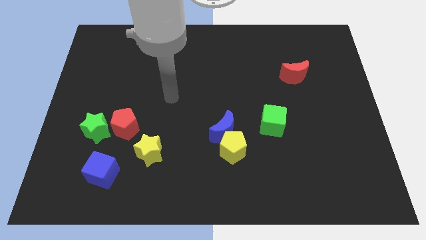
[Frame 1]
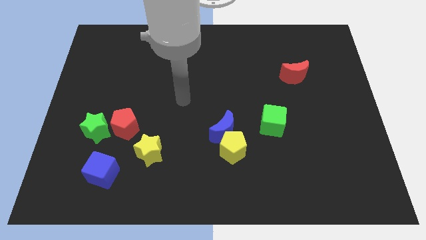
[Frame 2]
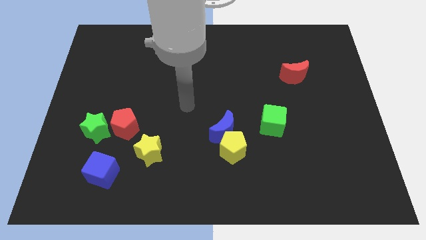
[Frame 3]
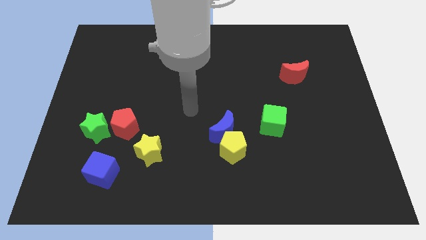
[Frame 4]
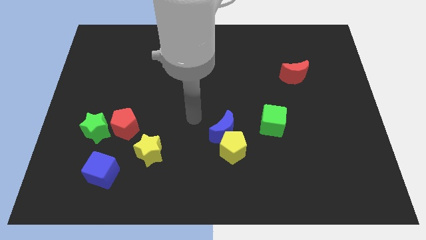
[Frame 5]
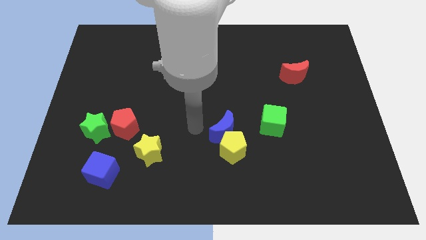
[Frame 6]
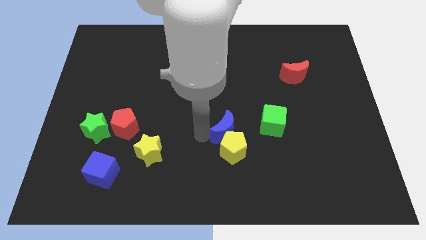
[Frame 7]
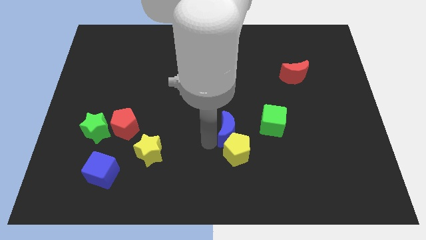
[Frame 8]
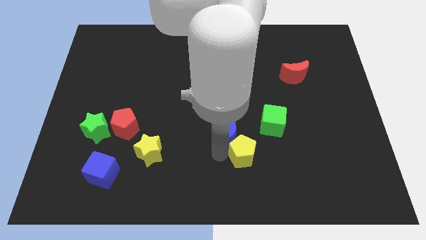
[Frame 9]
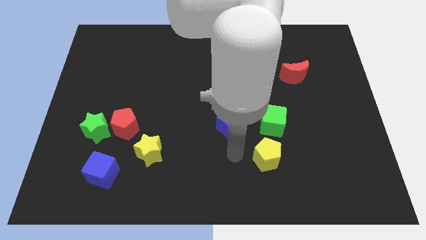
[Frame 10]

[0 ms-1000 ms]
pull the blue moon apart from the yellow pentagon

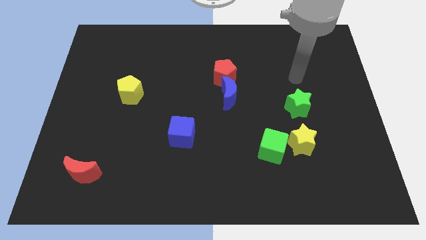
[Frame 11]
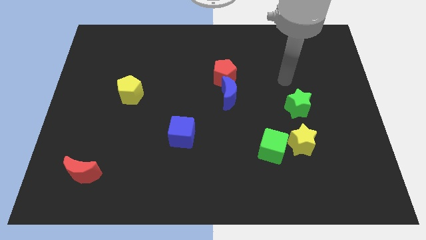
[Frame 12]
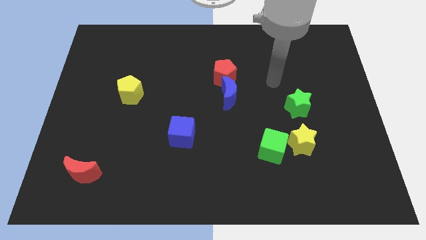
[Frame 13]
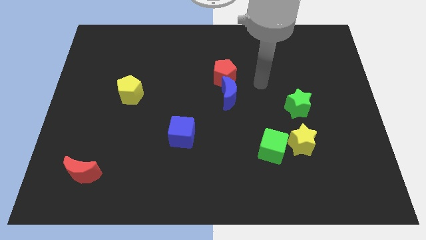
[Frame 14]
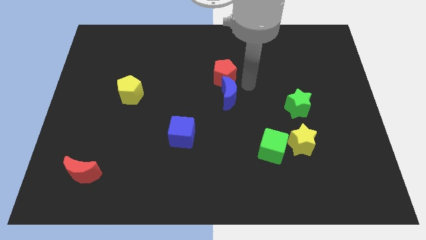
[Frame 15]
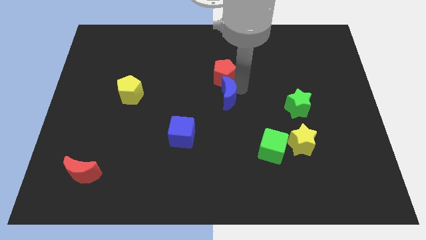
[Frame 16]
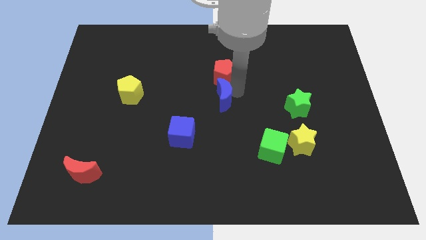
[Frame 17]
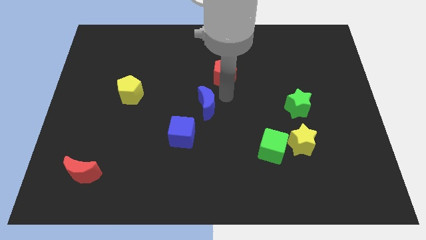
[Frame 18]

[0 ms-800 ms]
separate the red pentagon from the blue moon

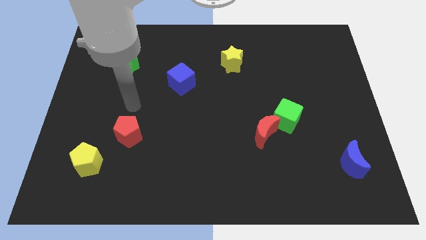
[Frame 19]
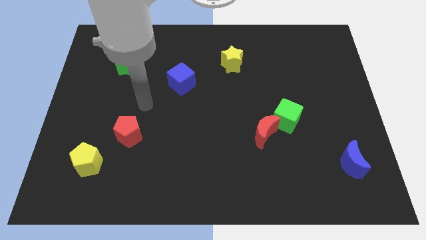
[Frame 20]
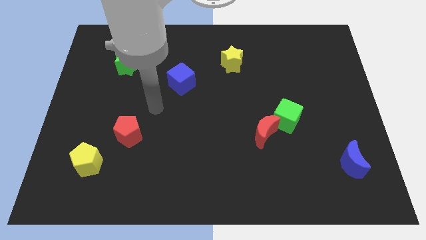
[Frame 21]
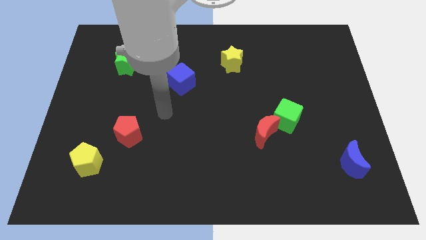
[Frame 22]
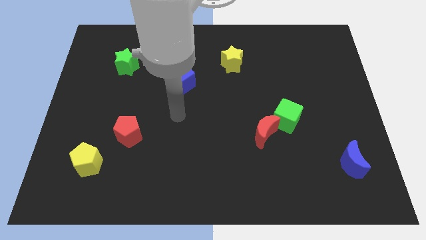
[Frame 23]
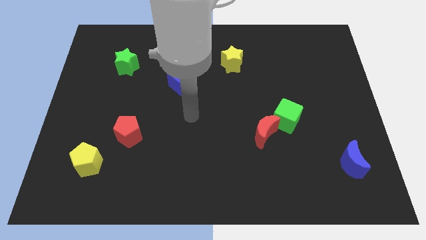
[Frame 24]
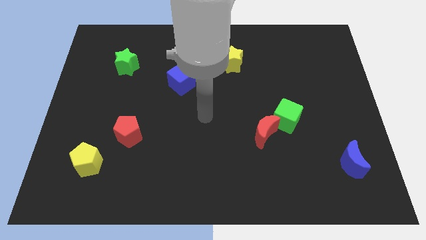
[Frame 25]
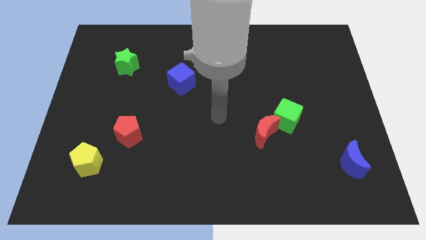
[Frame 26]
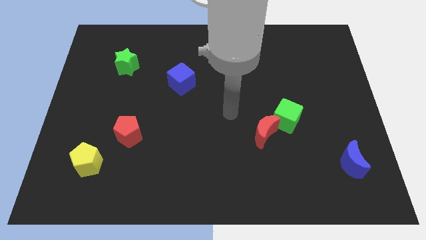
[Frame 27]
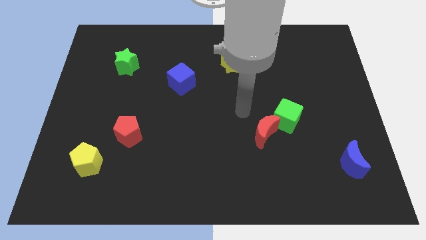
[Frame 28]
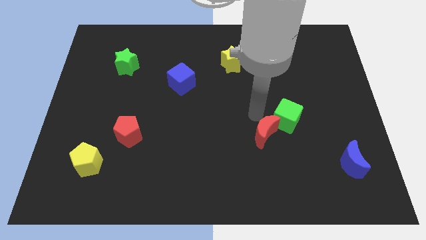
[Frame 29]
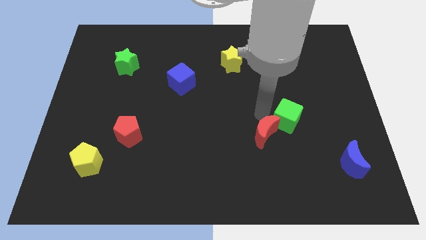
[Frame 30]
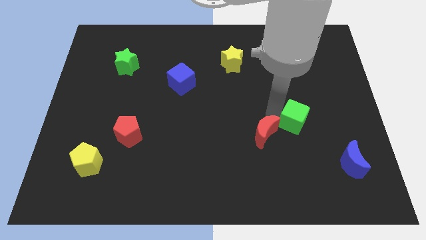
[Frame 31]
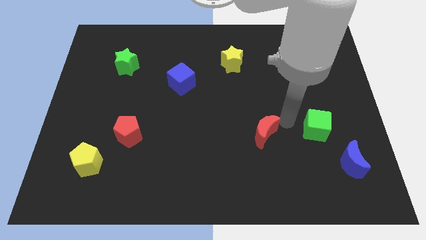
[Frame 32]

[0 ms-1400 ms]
separate the red moon from the green cube

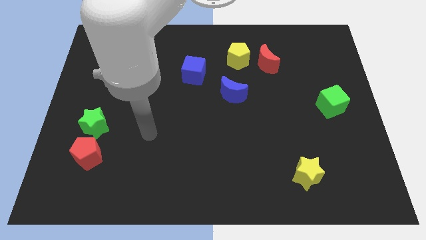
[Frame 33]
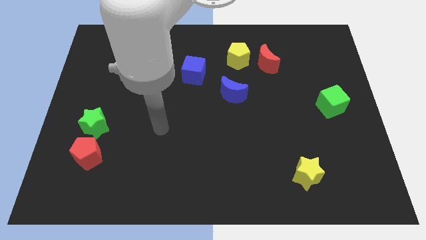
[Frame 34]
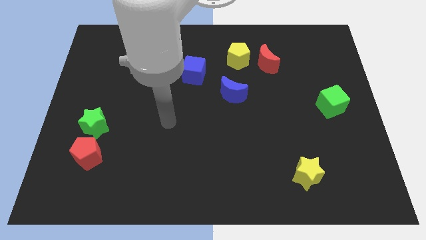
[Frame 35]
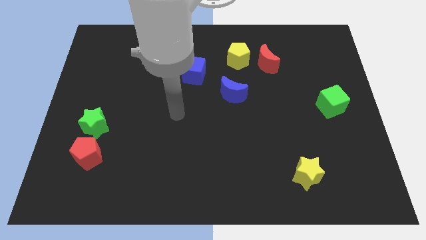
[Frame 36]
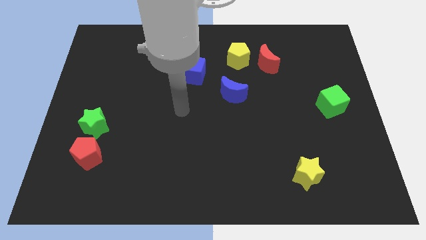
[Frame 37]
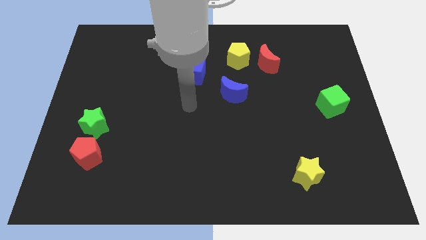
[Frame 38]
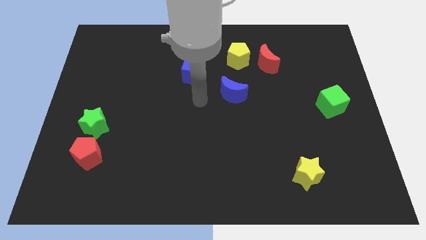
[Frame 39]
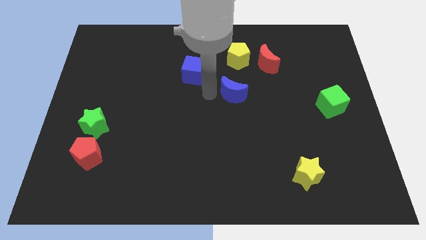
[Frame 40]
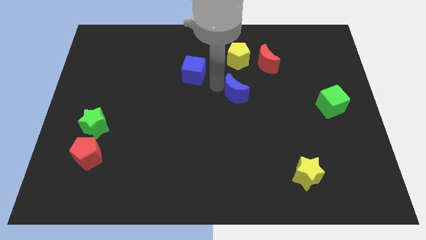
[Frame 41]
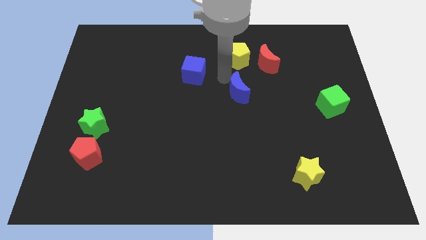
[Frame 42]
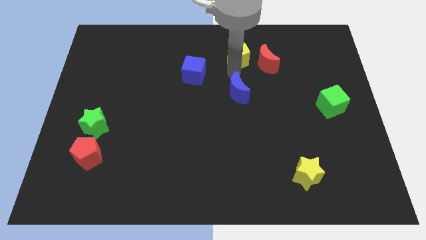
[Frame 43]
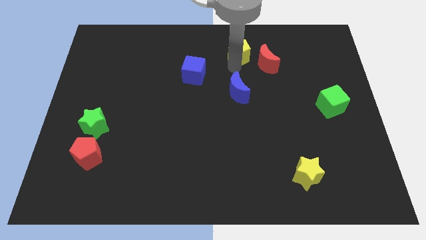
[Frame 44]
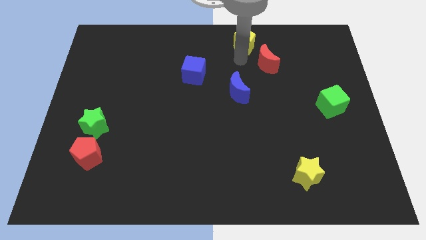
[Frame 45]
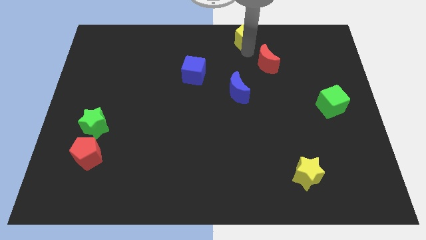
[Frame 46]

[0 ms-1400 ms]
pull the red moon apart from the yellow pentagon

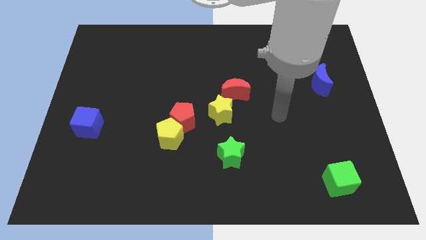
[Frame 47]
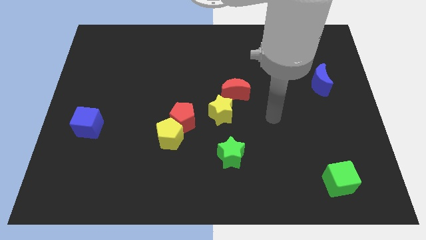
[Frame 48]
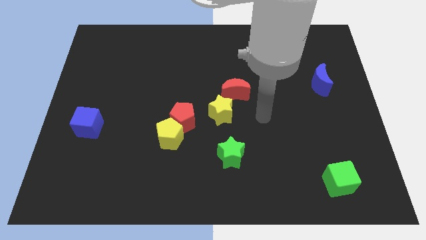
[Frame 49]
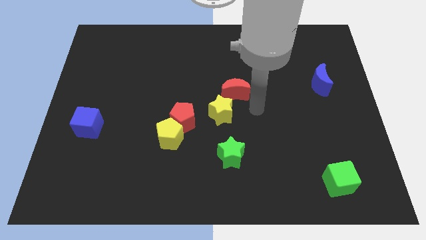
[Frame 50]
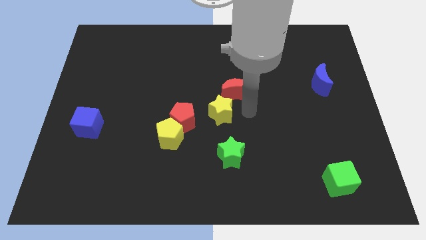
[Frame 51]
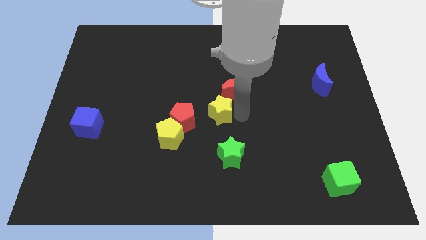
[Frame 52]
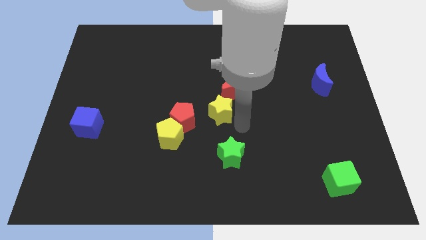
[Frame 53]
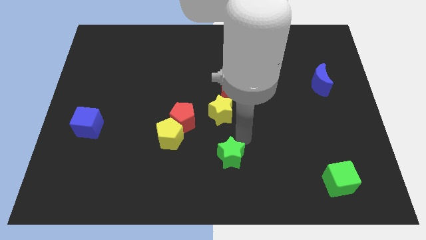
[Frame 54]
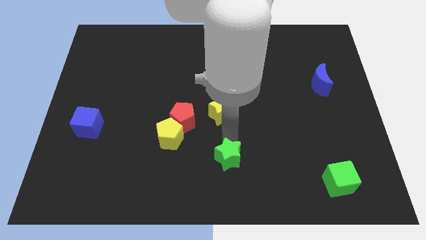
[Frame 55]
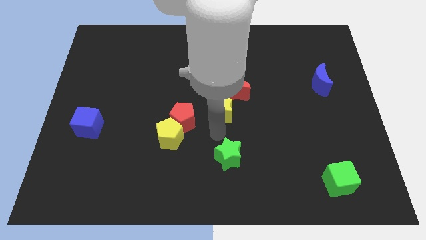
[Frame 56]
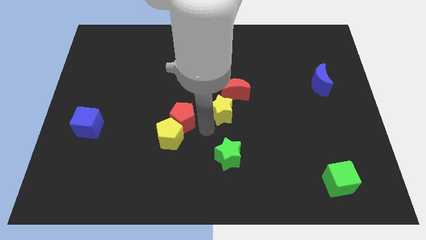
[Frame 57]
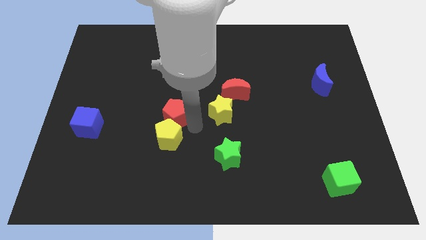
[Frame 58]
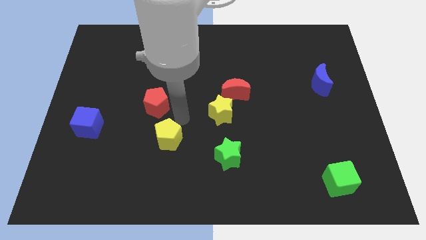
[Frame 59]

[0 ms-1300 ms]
move the yellow pentagon away from the red pentagon

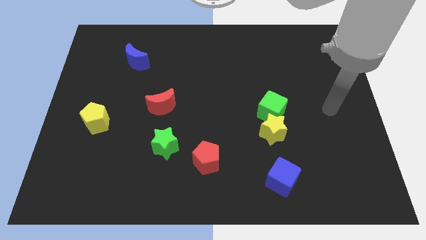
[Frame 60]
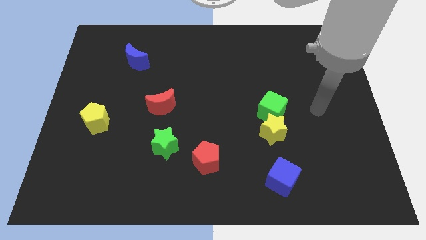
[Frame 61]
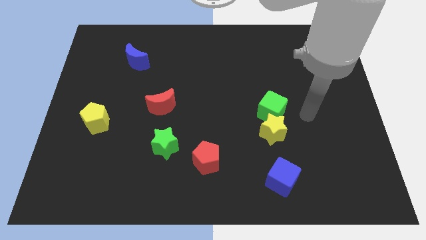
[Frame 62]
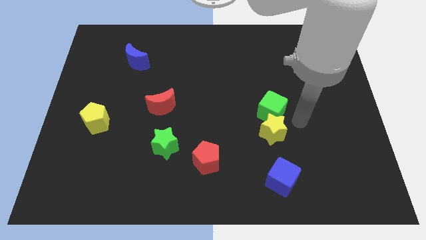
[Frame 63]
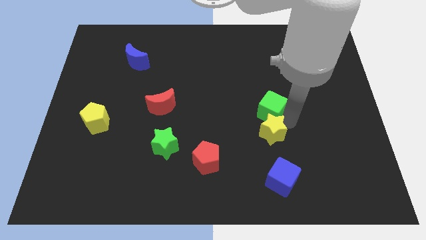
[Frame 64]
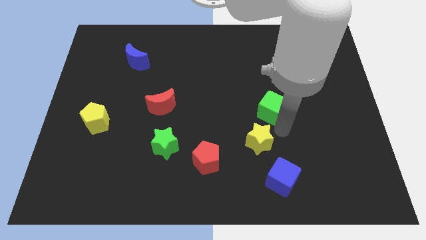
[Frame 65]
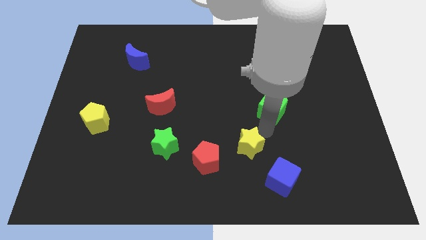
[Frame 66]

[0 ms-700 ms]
separate the green cube from the yellow star

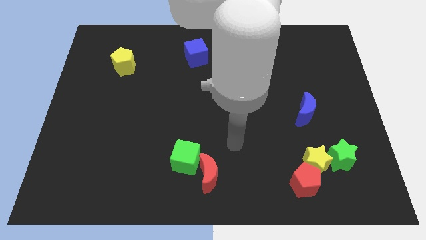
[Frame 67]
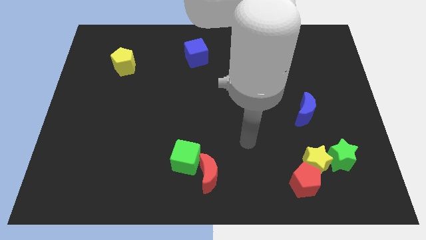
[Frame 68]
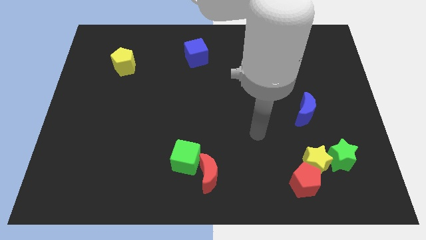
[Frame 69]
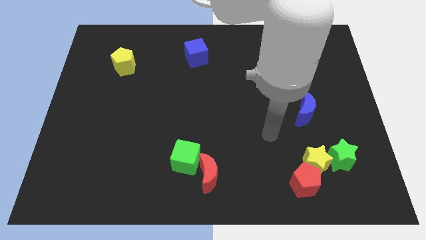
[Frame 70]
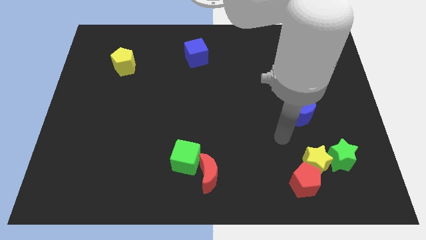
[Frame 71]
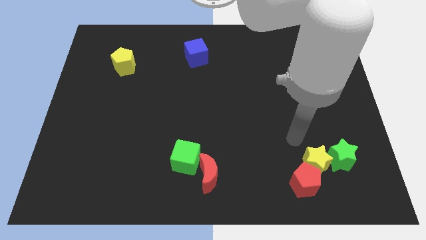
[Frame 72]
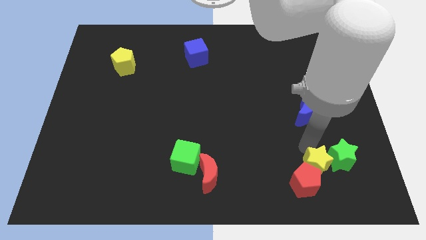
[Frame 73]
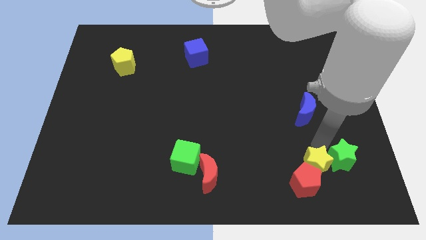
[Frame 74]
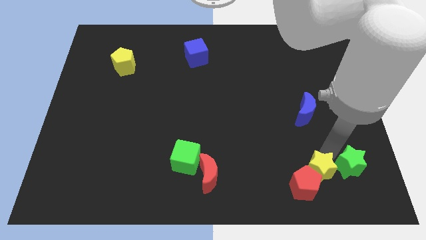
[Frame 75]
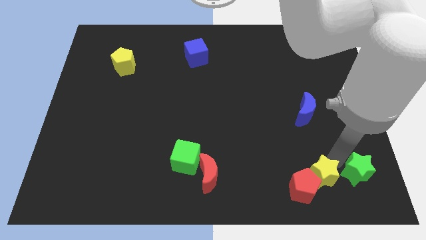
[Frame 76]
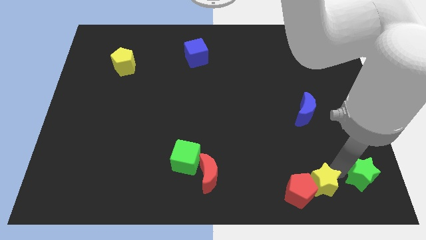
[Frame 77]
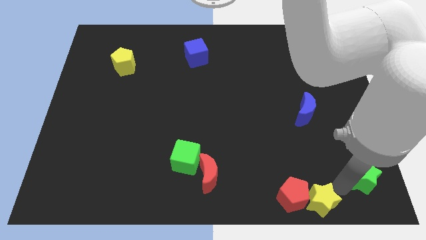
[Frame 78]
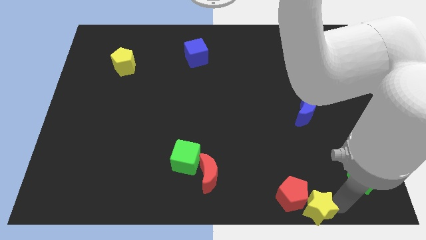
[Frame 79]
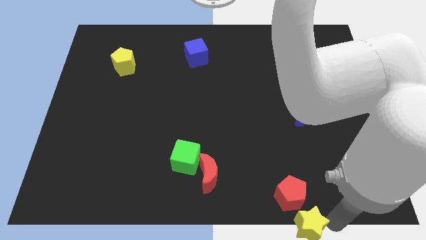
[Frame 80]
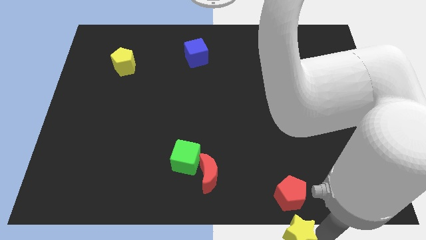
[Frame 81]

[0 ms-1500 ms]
move the yellow star away from the red pentagon and green star

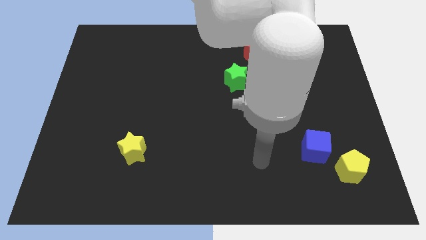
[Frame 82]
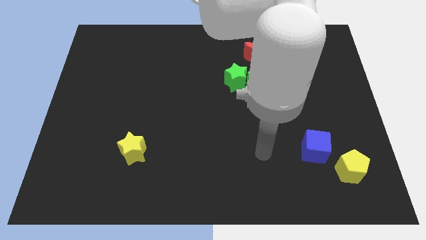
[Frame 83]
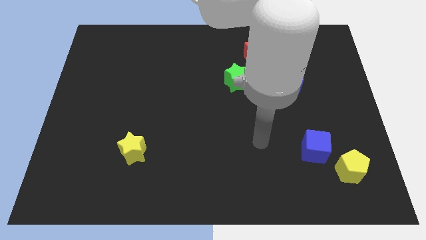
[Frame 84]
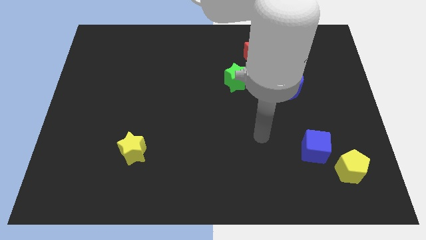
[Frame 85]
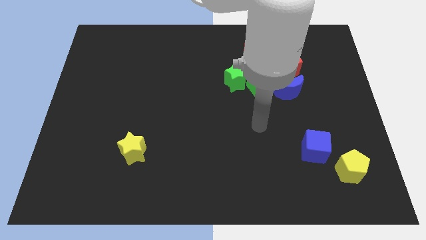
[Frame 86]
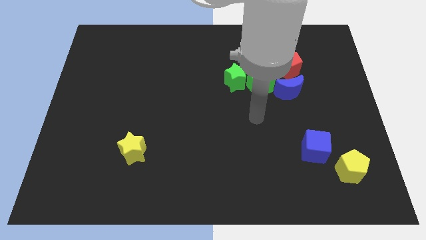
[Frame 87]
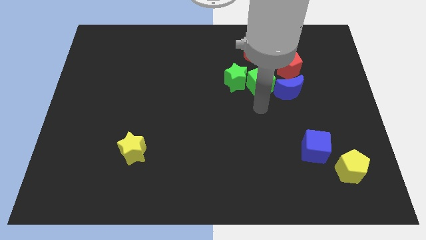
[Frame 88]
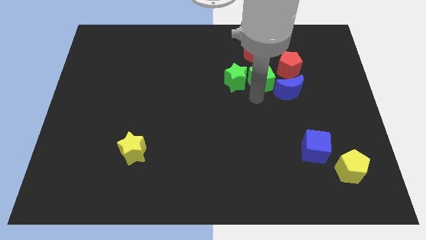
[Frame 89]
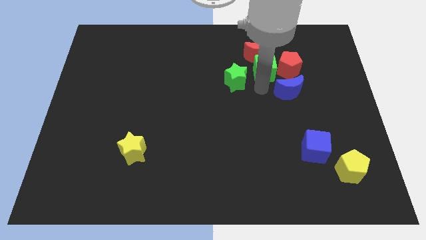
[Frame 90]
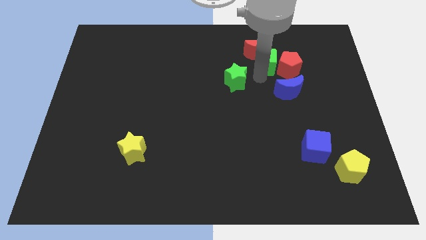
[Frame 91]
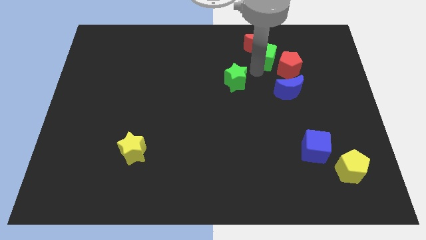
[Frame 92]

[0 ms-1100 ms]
separate the green star from the green cube
